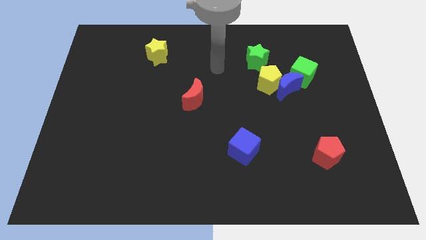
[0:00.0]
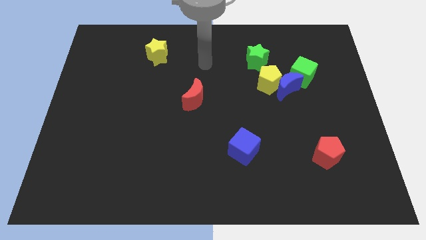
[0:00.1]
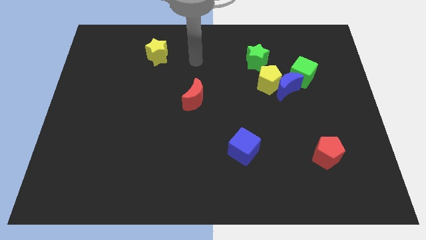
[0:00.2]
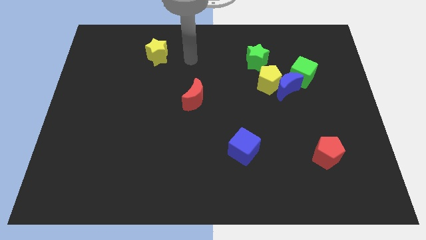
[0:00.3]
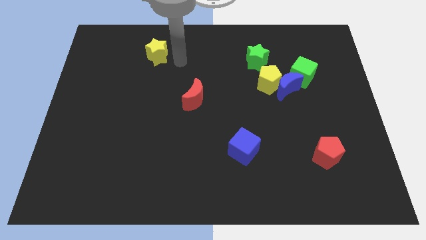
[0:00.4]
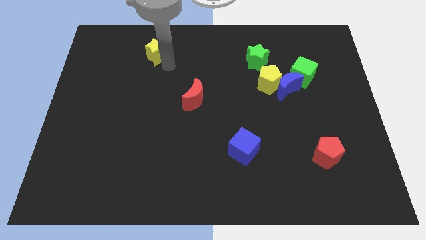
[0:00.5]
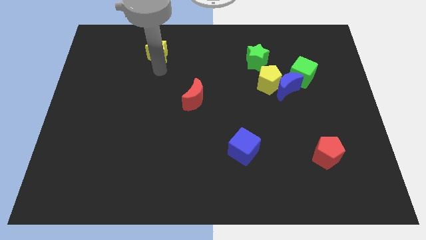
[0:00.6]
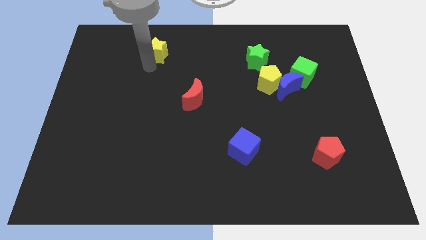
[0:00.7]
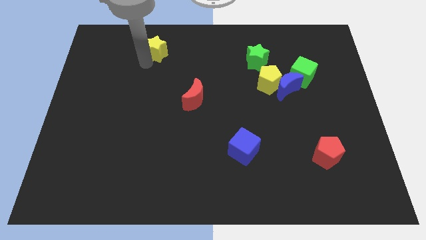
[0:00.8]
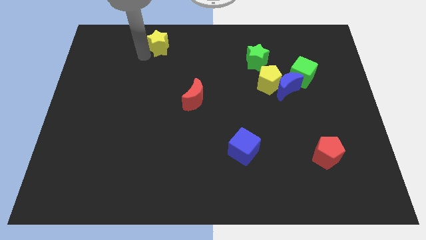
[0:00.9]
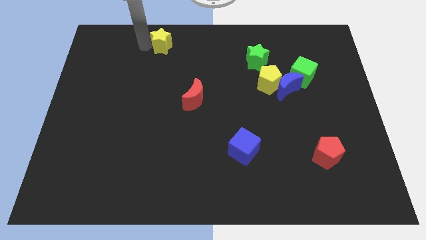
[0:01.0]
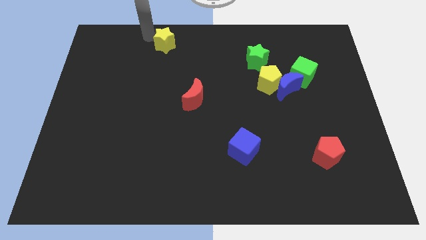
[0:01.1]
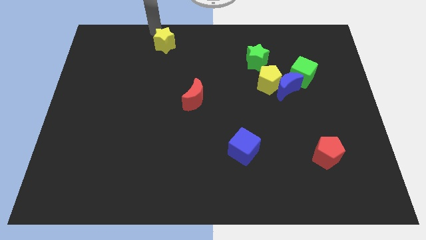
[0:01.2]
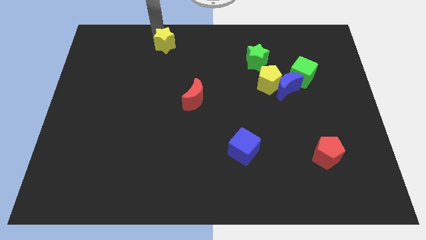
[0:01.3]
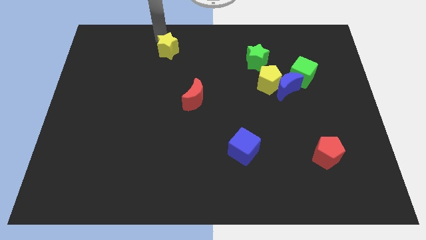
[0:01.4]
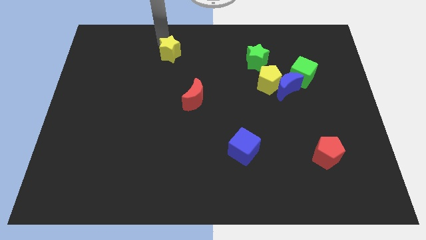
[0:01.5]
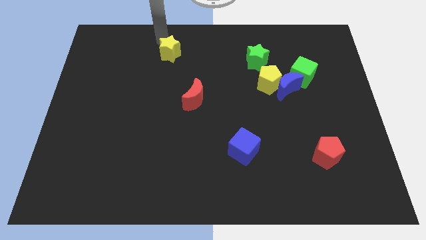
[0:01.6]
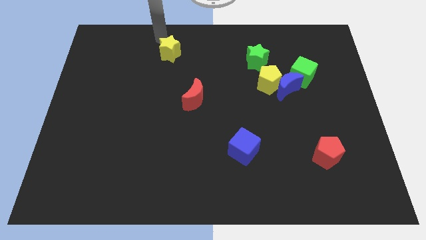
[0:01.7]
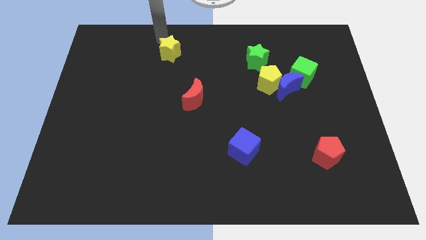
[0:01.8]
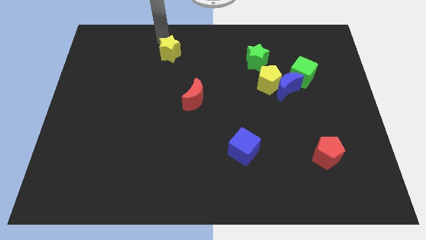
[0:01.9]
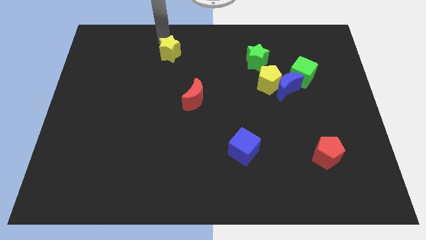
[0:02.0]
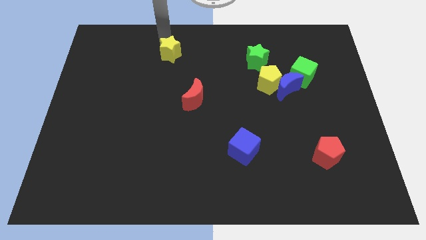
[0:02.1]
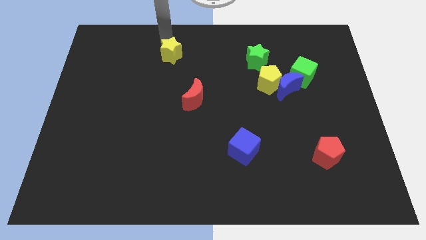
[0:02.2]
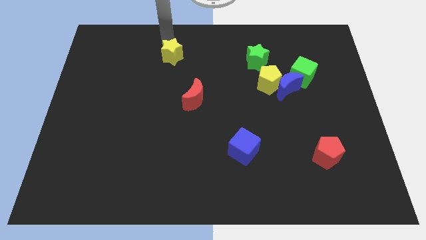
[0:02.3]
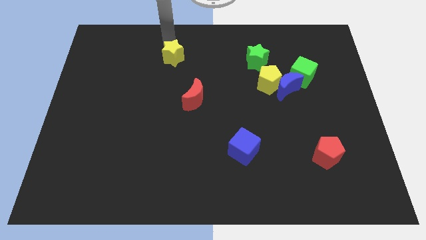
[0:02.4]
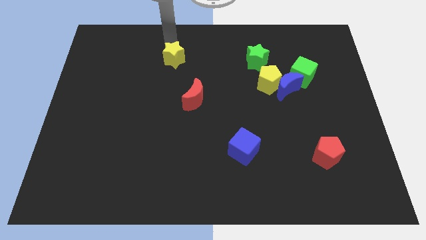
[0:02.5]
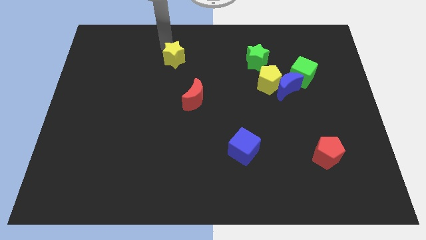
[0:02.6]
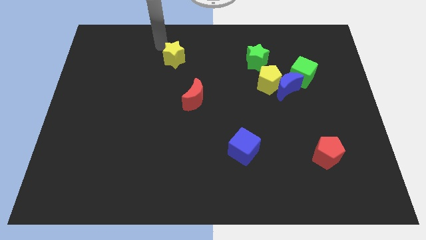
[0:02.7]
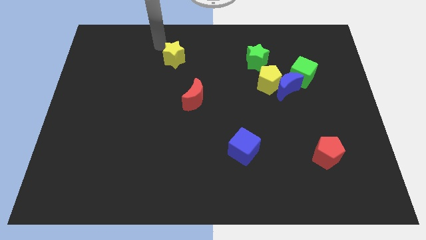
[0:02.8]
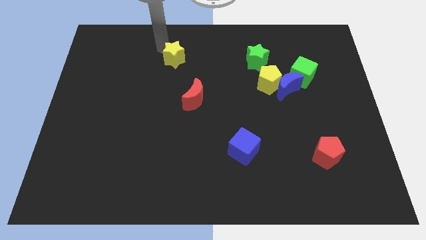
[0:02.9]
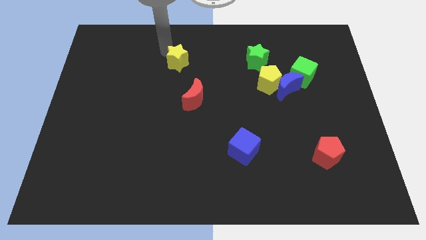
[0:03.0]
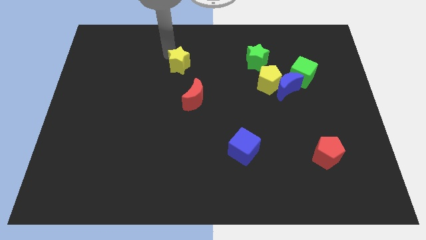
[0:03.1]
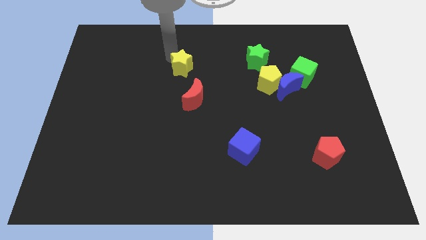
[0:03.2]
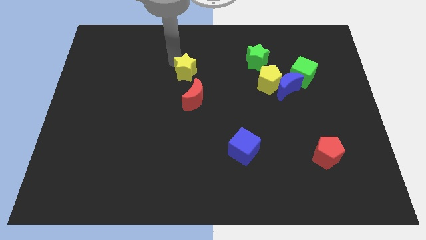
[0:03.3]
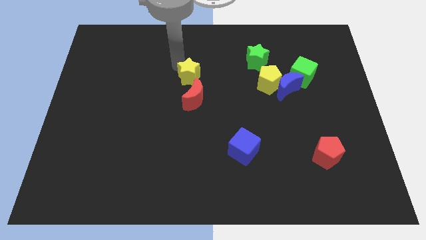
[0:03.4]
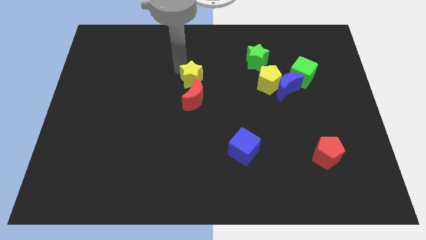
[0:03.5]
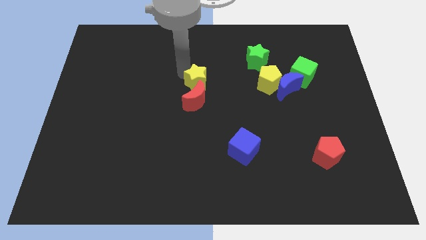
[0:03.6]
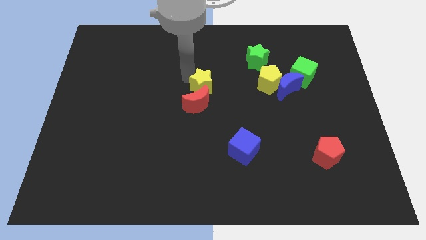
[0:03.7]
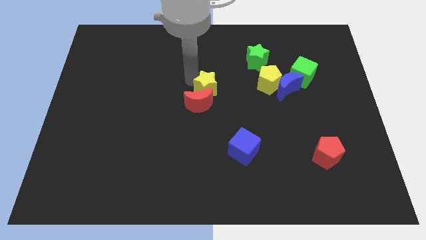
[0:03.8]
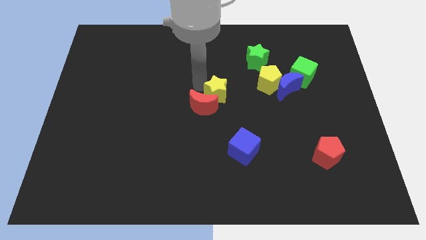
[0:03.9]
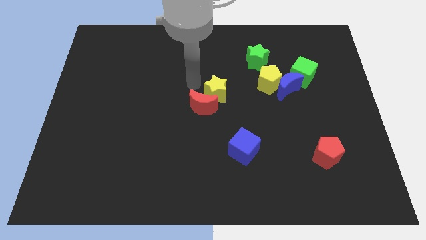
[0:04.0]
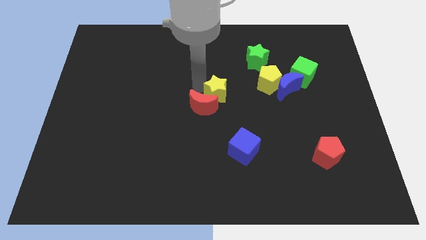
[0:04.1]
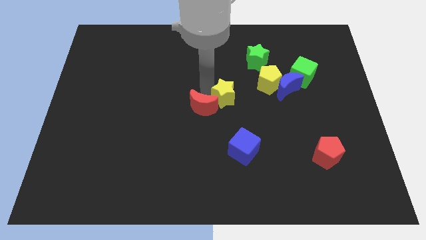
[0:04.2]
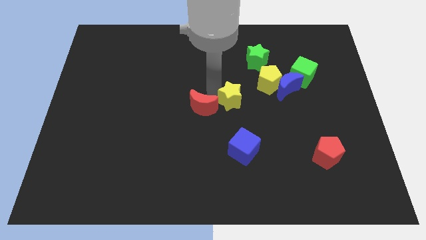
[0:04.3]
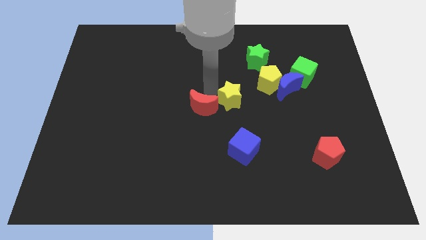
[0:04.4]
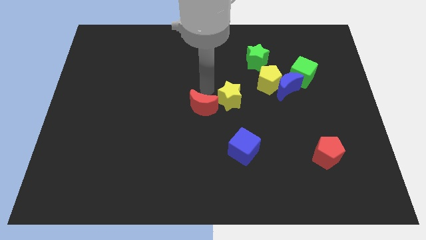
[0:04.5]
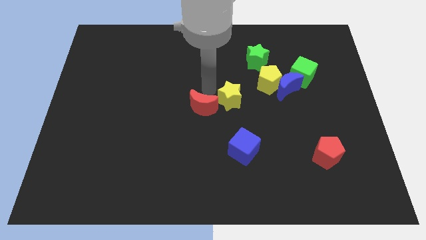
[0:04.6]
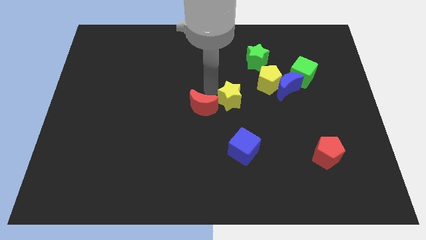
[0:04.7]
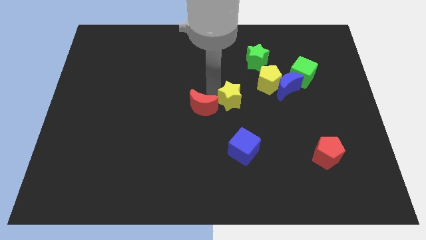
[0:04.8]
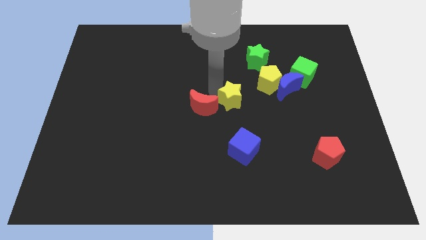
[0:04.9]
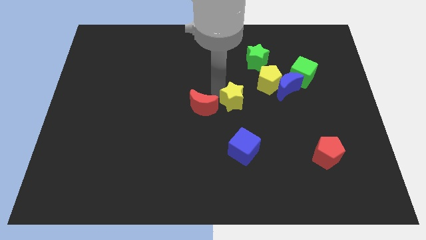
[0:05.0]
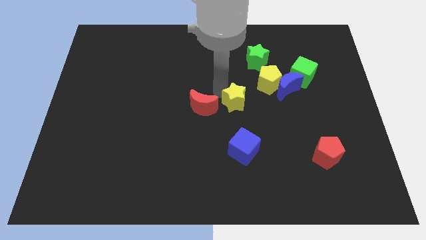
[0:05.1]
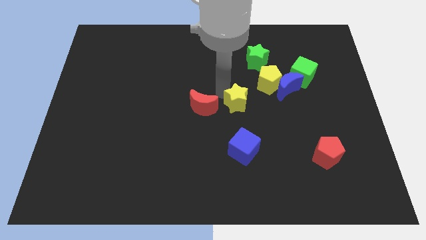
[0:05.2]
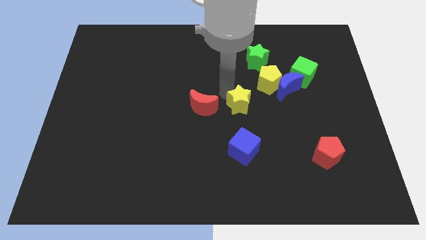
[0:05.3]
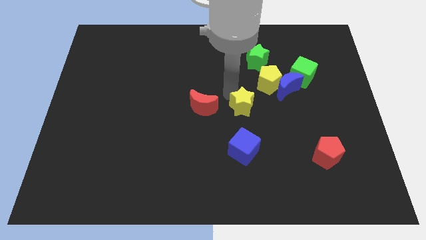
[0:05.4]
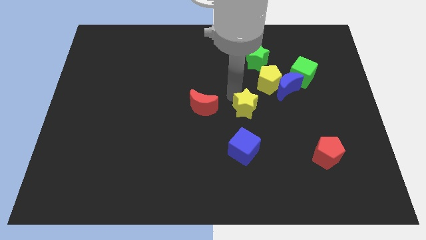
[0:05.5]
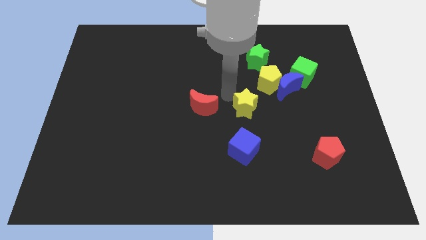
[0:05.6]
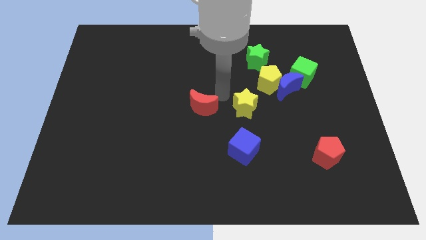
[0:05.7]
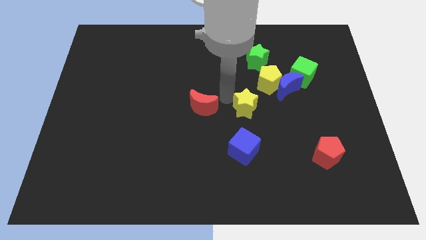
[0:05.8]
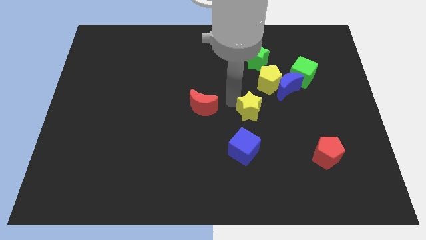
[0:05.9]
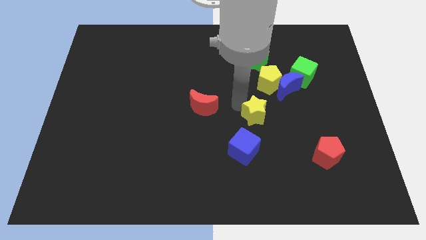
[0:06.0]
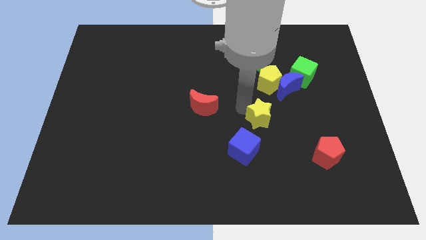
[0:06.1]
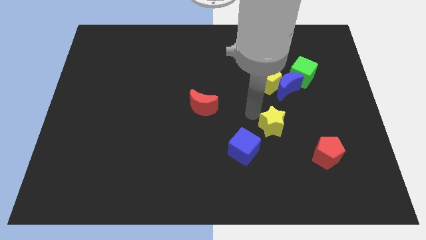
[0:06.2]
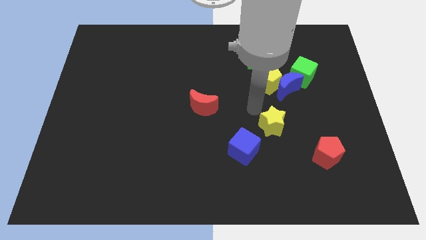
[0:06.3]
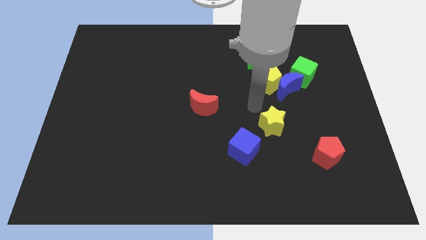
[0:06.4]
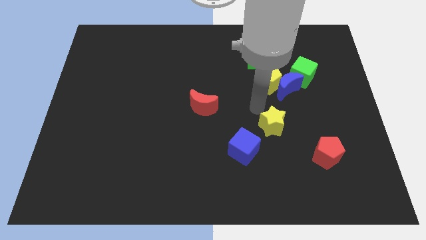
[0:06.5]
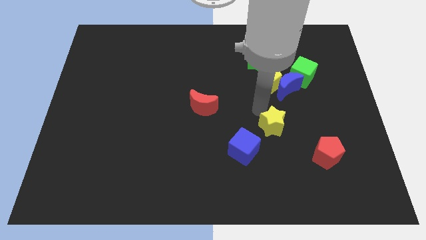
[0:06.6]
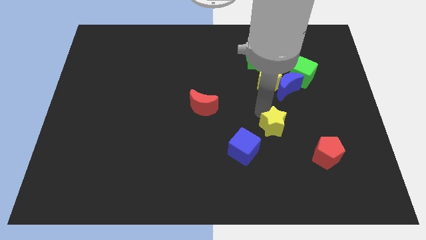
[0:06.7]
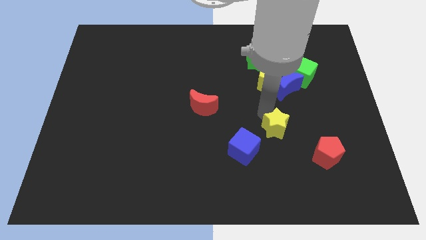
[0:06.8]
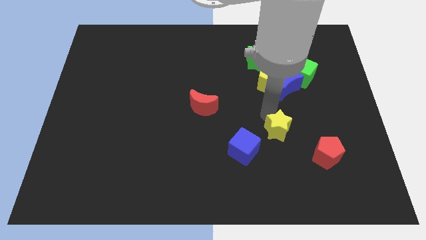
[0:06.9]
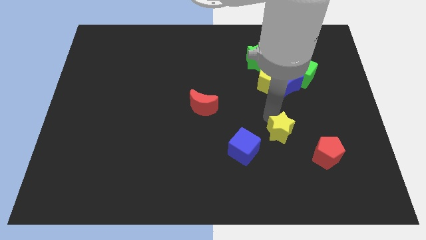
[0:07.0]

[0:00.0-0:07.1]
push the yellow star right of the blue cube
